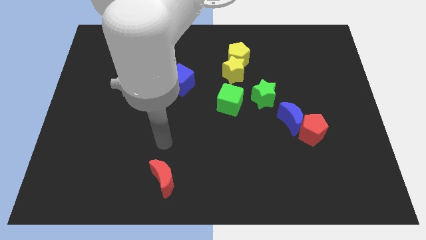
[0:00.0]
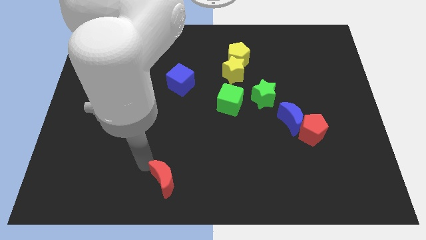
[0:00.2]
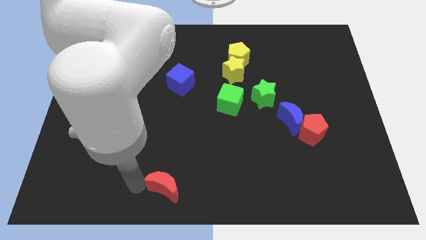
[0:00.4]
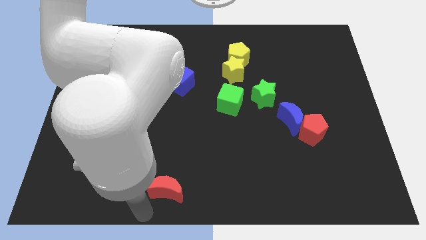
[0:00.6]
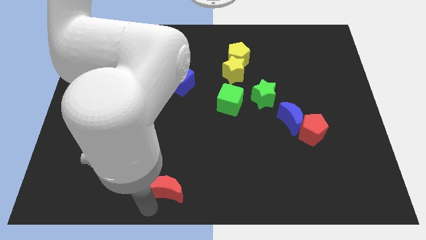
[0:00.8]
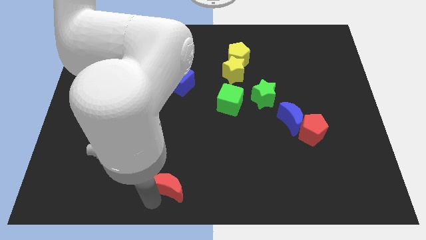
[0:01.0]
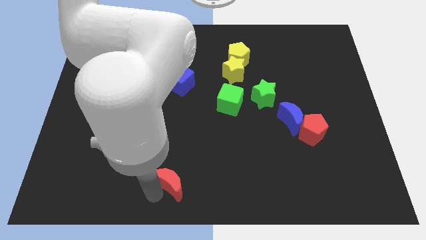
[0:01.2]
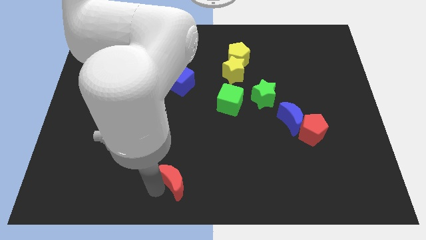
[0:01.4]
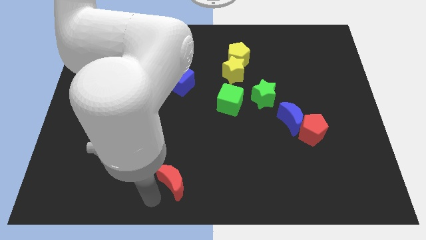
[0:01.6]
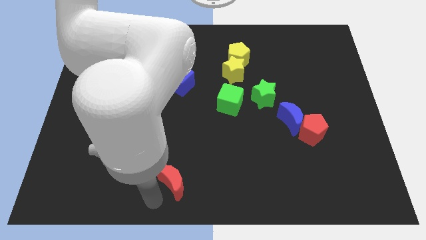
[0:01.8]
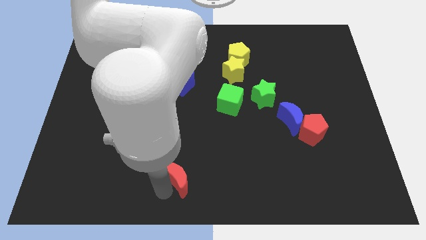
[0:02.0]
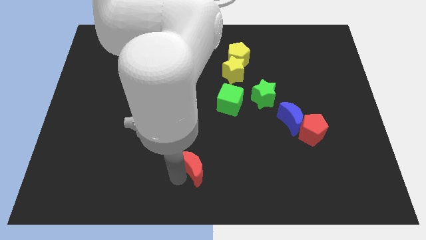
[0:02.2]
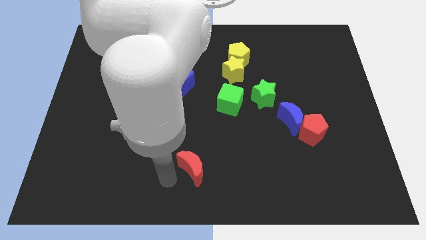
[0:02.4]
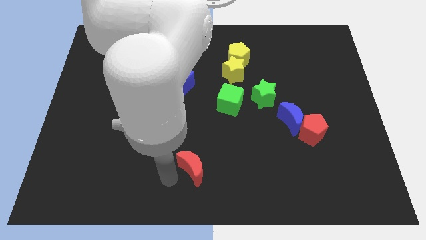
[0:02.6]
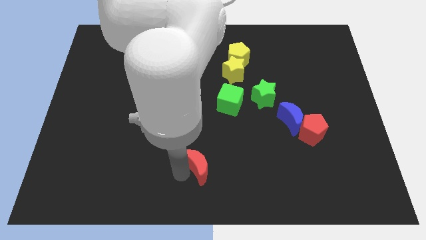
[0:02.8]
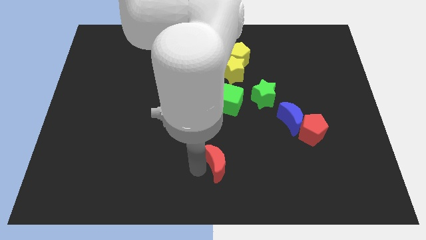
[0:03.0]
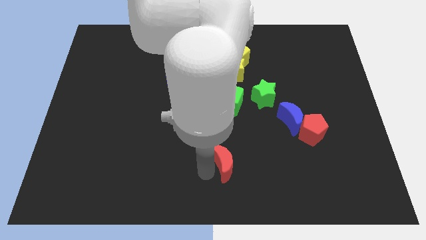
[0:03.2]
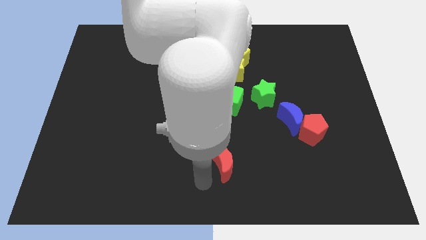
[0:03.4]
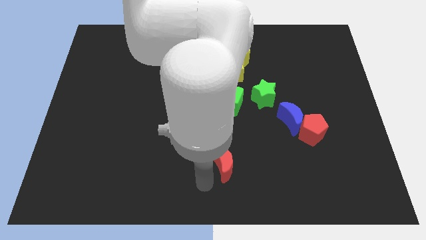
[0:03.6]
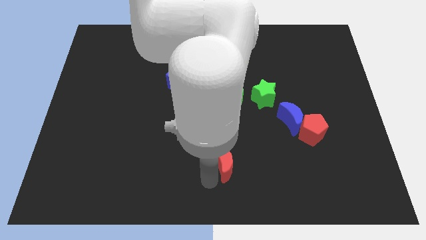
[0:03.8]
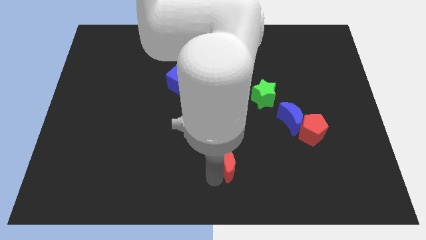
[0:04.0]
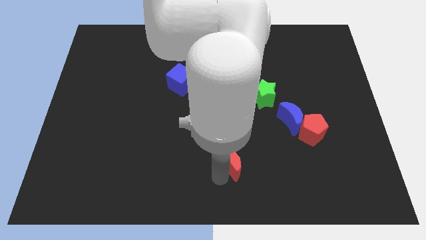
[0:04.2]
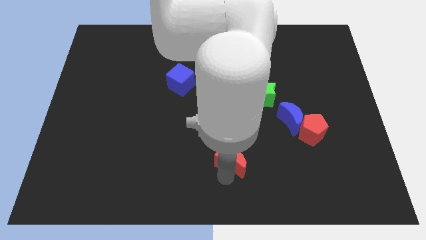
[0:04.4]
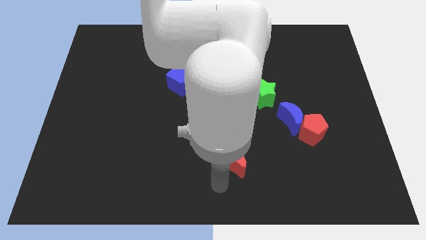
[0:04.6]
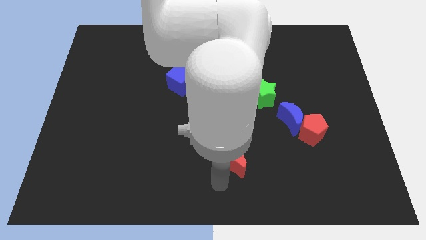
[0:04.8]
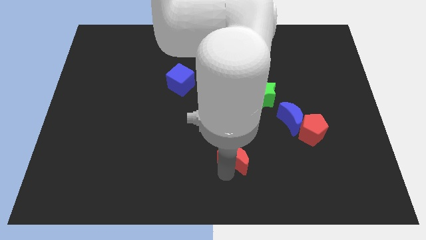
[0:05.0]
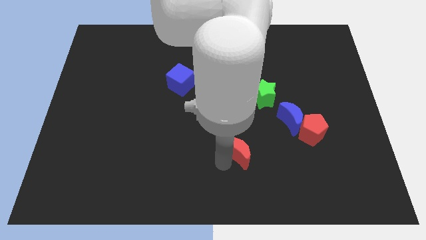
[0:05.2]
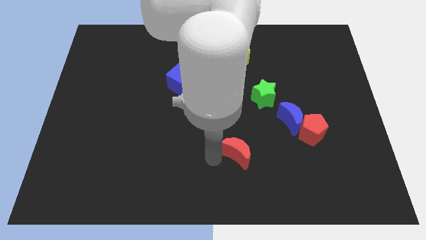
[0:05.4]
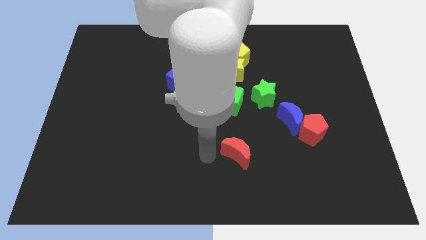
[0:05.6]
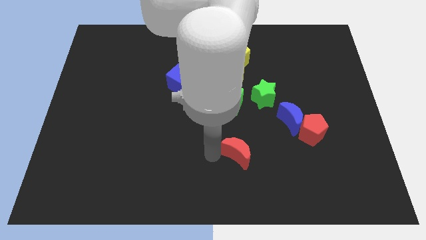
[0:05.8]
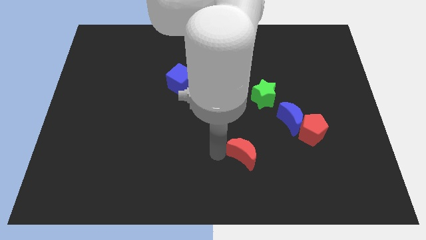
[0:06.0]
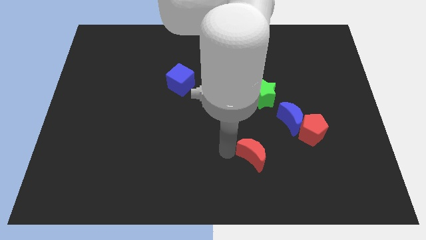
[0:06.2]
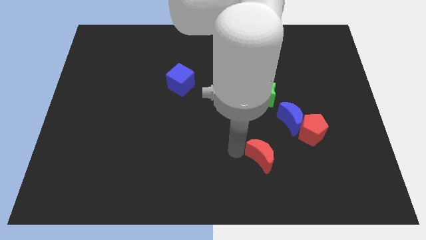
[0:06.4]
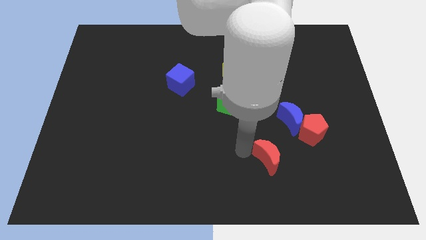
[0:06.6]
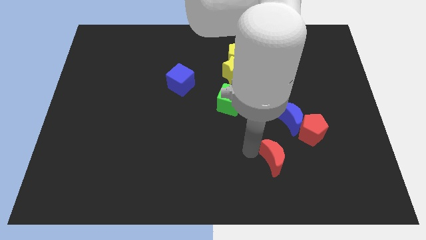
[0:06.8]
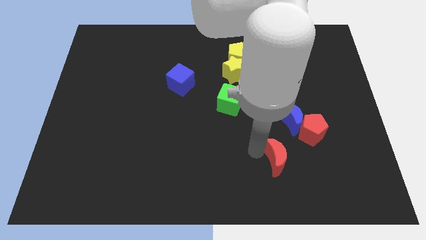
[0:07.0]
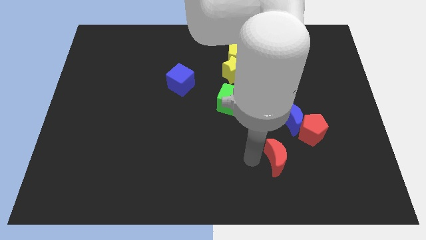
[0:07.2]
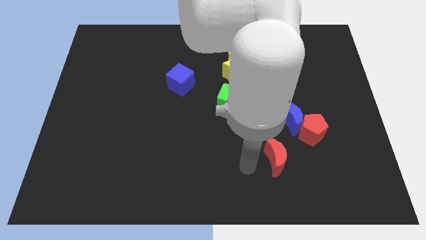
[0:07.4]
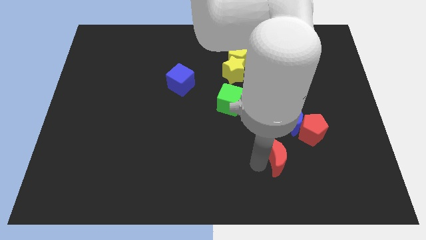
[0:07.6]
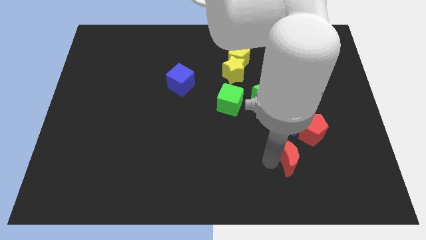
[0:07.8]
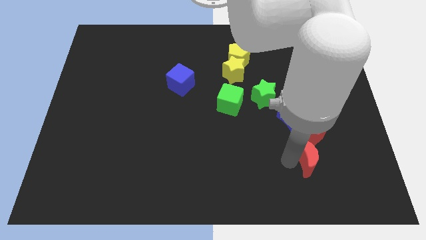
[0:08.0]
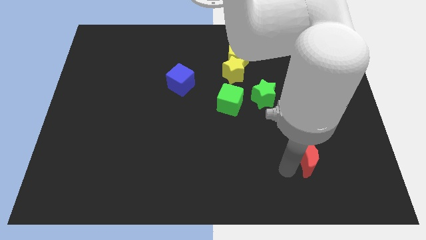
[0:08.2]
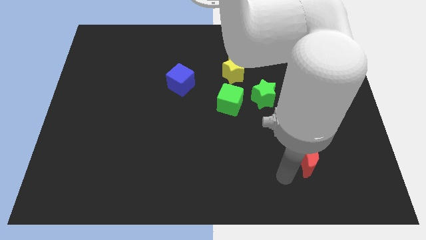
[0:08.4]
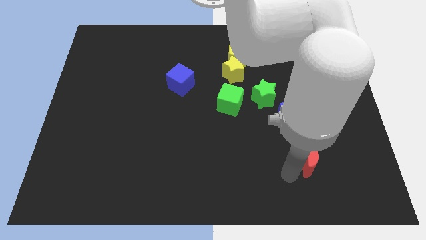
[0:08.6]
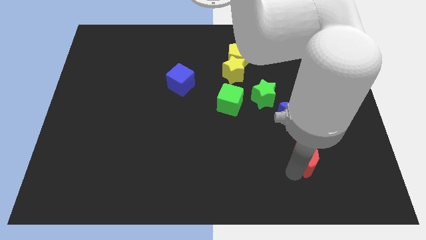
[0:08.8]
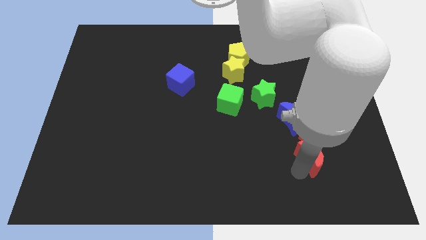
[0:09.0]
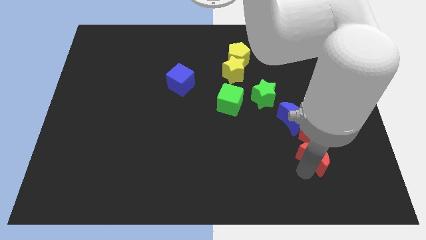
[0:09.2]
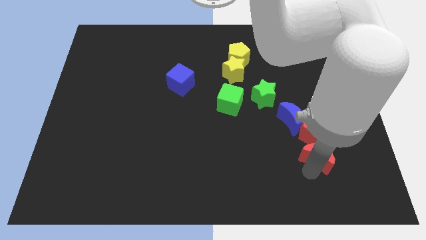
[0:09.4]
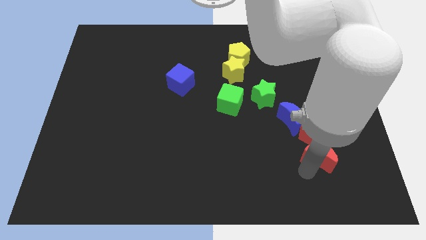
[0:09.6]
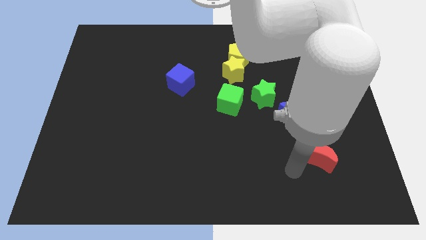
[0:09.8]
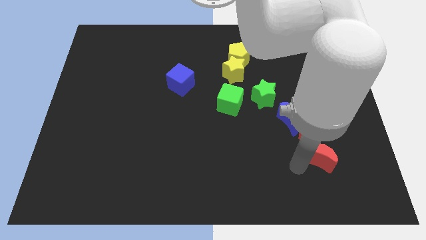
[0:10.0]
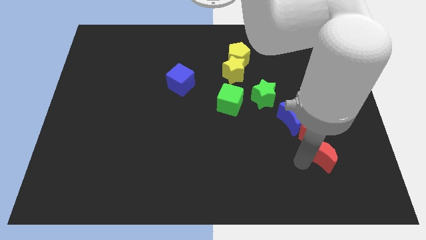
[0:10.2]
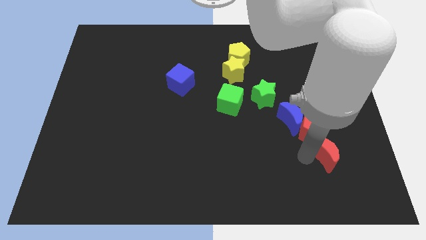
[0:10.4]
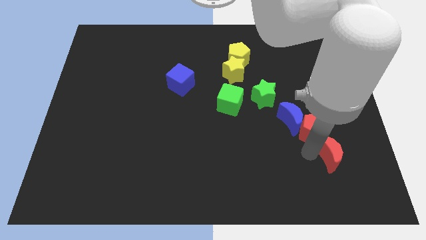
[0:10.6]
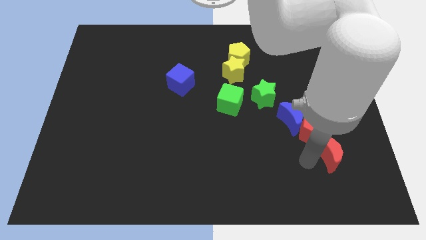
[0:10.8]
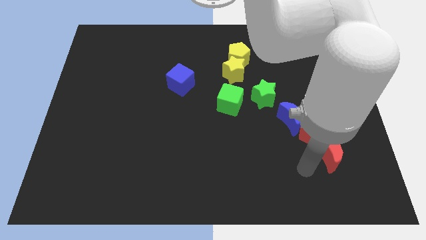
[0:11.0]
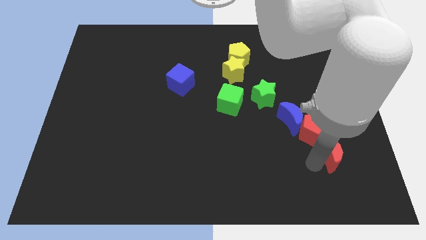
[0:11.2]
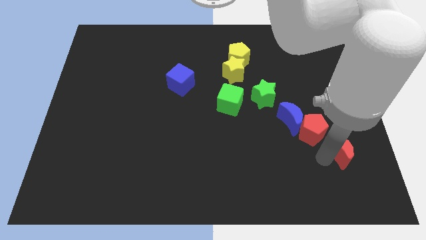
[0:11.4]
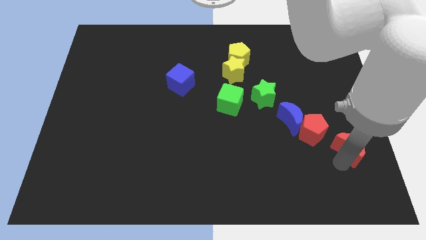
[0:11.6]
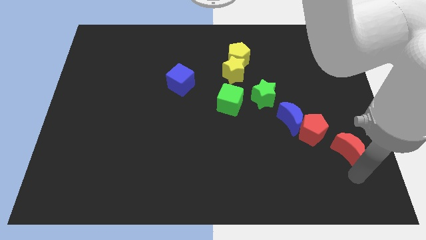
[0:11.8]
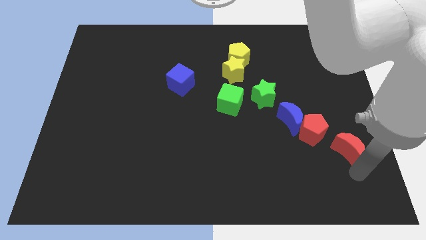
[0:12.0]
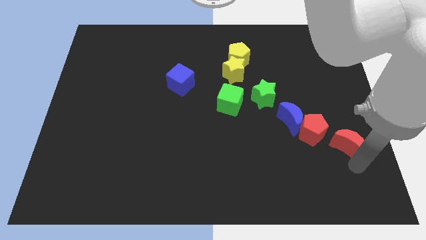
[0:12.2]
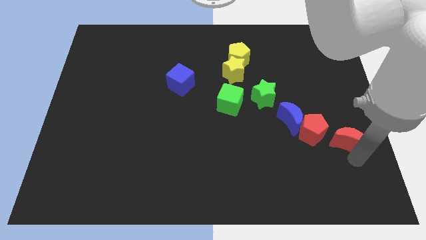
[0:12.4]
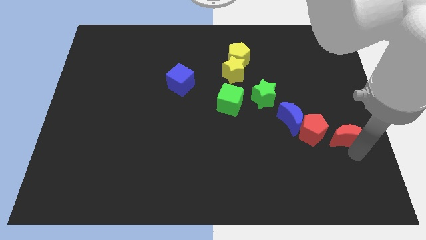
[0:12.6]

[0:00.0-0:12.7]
push the red moon to the right side of the blue moon
